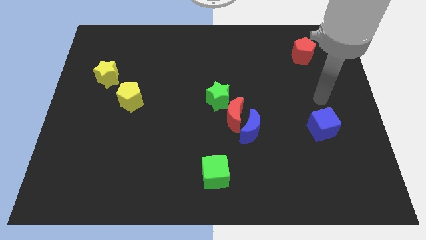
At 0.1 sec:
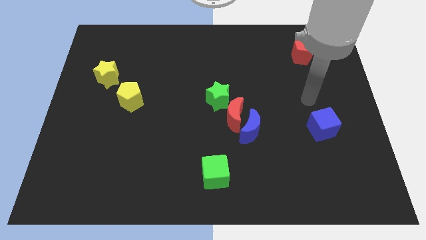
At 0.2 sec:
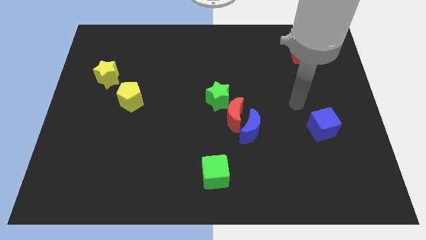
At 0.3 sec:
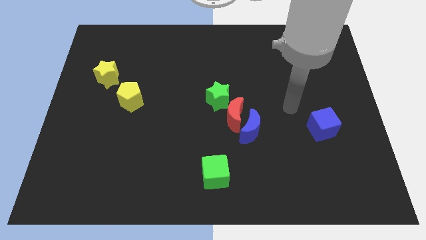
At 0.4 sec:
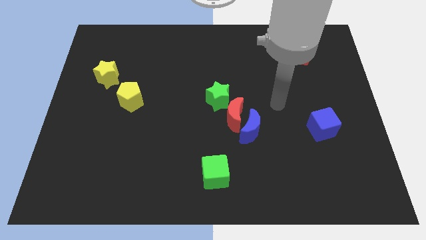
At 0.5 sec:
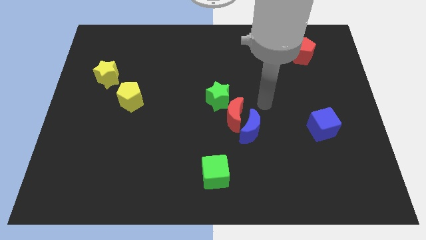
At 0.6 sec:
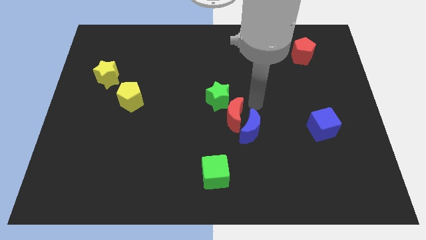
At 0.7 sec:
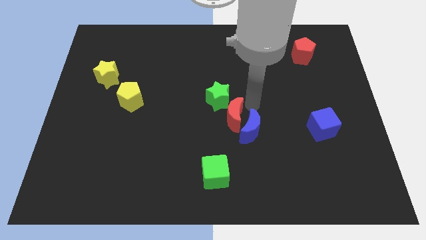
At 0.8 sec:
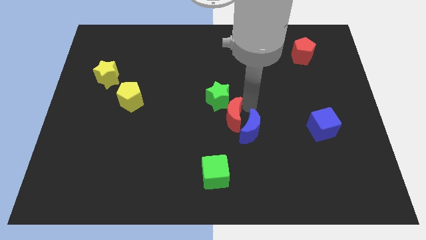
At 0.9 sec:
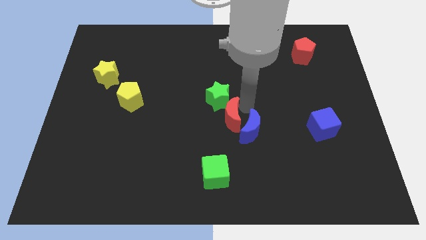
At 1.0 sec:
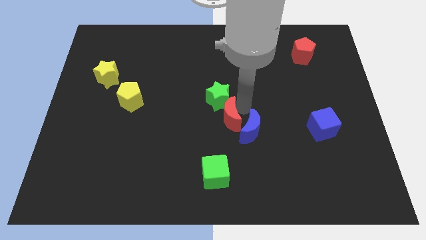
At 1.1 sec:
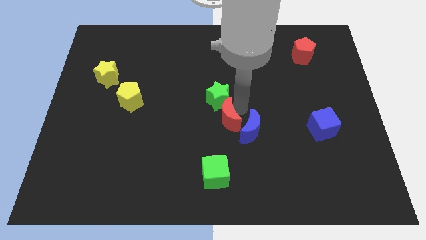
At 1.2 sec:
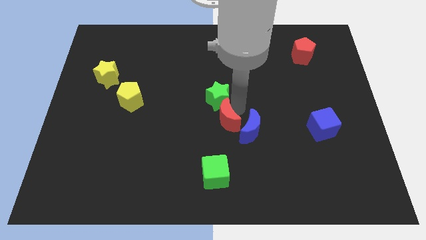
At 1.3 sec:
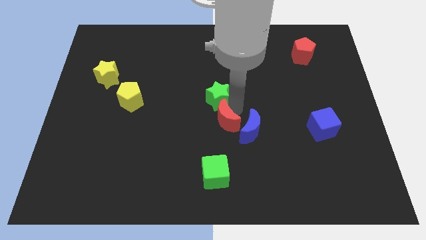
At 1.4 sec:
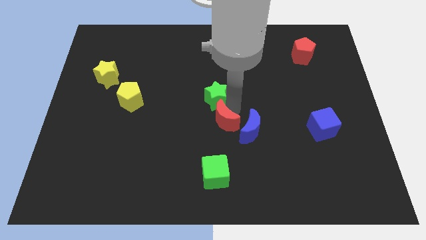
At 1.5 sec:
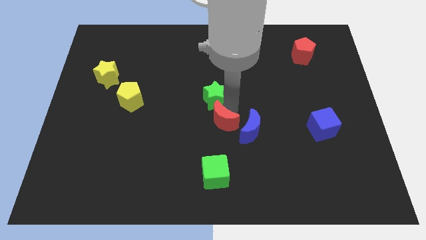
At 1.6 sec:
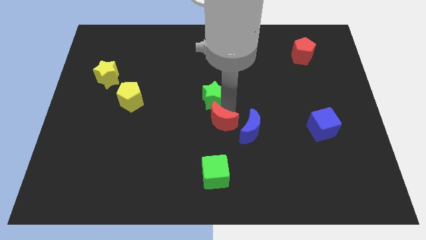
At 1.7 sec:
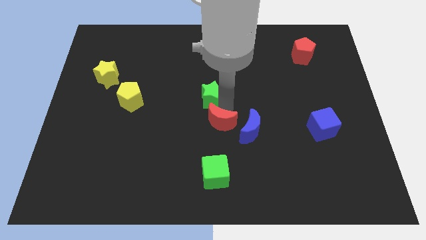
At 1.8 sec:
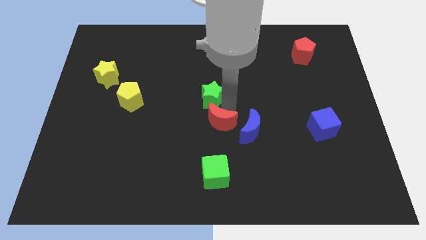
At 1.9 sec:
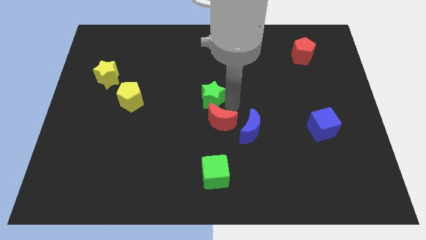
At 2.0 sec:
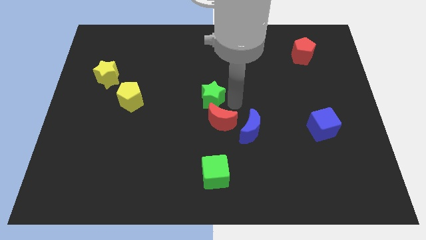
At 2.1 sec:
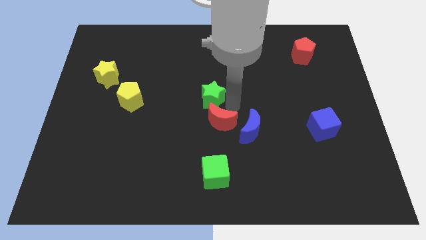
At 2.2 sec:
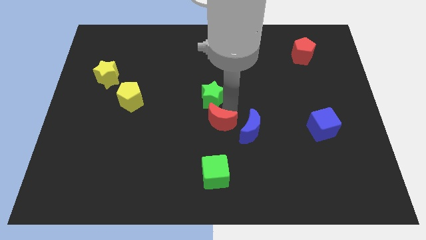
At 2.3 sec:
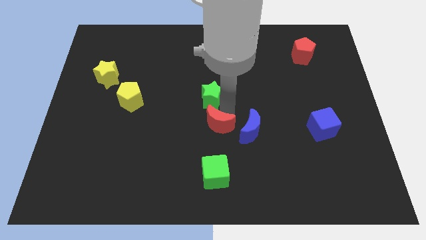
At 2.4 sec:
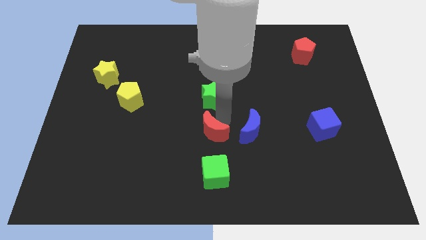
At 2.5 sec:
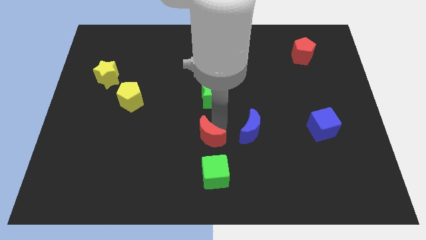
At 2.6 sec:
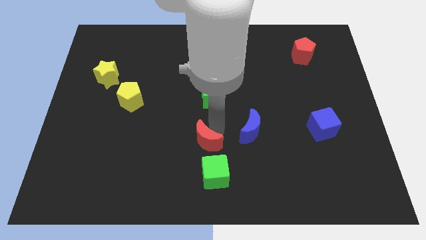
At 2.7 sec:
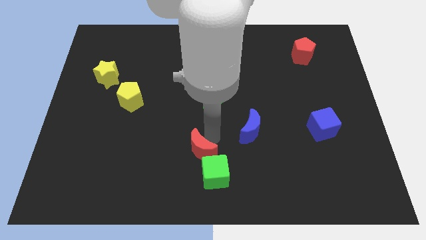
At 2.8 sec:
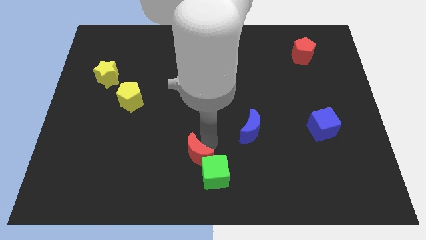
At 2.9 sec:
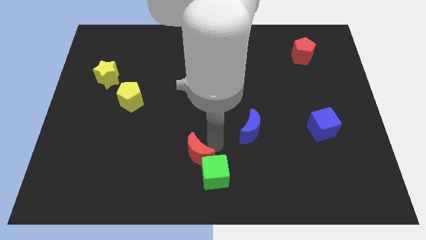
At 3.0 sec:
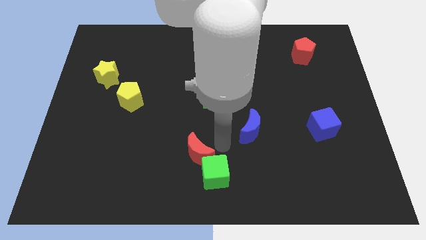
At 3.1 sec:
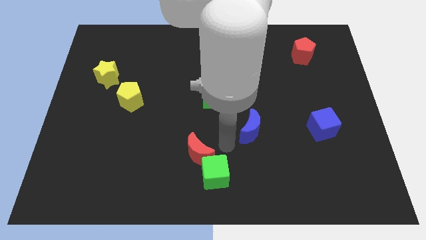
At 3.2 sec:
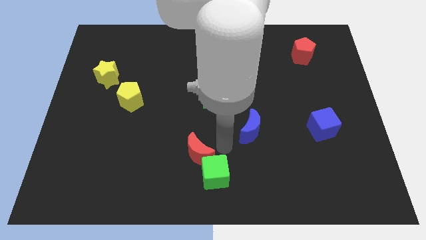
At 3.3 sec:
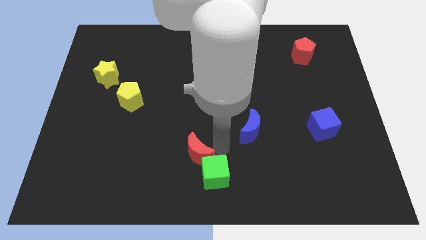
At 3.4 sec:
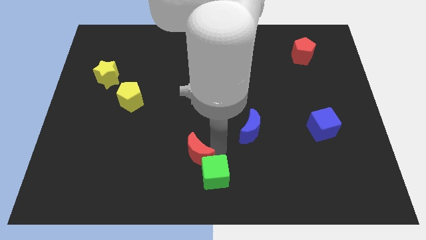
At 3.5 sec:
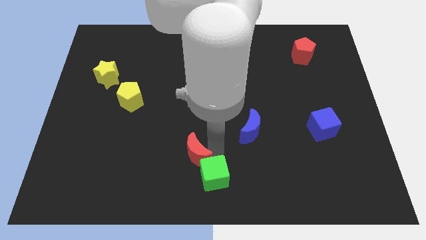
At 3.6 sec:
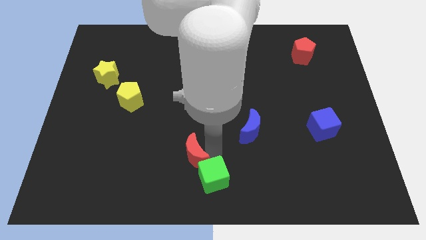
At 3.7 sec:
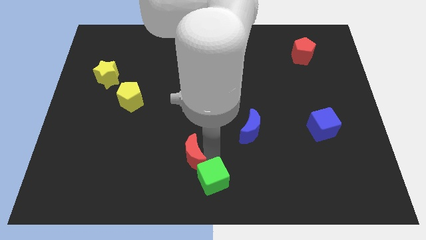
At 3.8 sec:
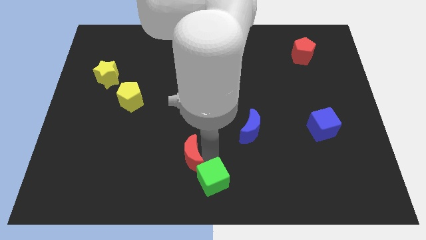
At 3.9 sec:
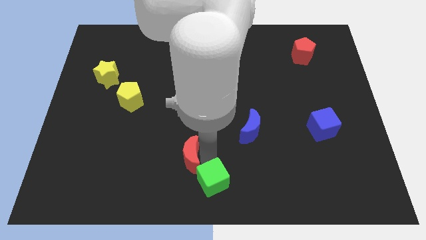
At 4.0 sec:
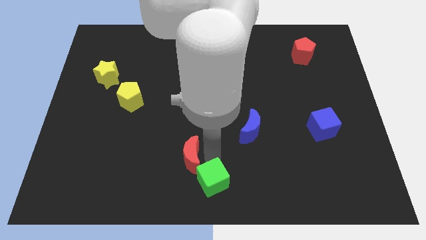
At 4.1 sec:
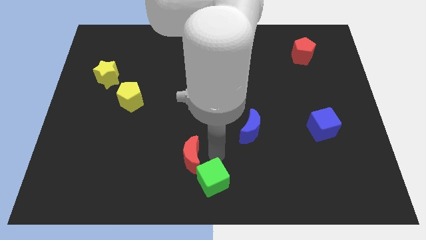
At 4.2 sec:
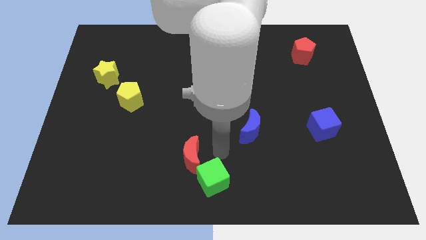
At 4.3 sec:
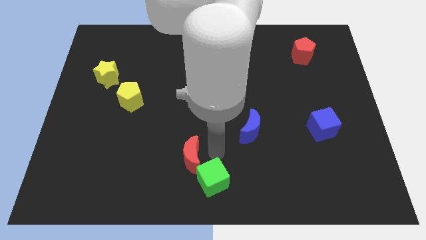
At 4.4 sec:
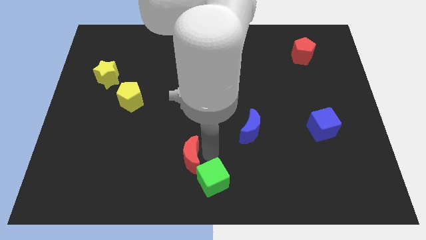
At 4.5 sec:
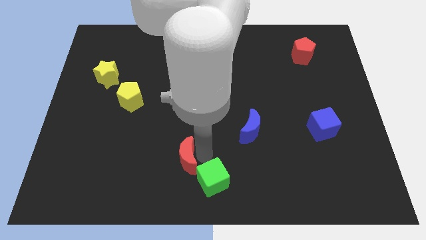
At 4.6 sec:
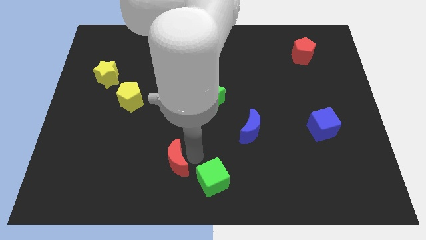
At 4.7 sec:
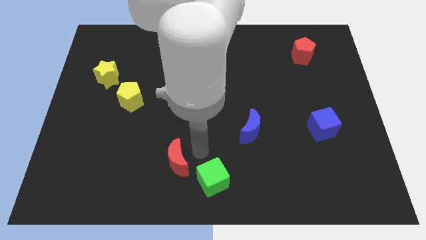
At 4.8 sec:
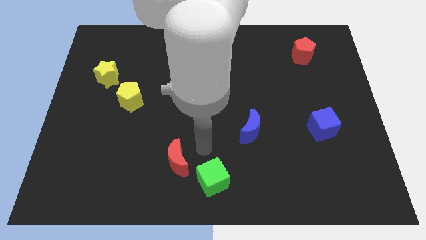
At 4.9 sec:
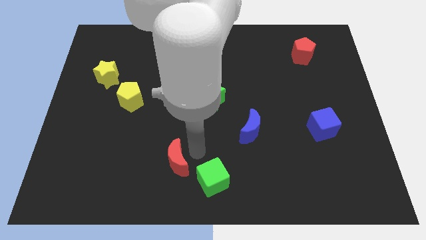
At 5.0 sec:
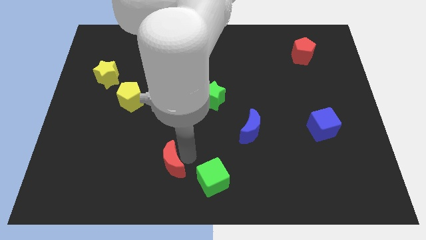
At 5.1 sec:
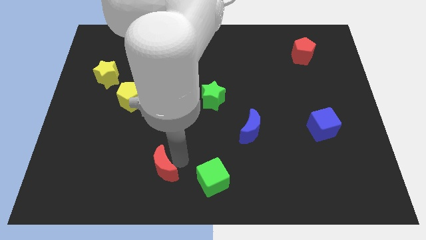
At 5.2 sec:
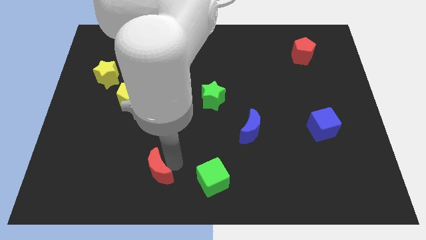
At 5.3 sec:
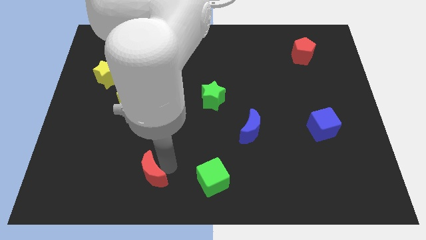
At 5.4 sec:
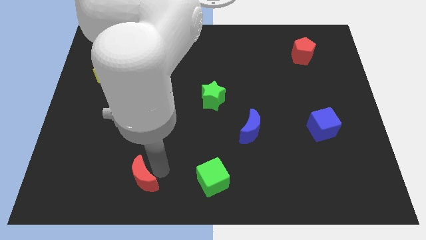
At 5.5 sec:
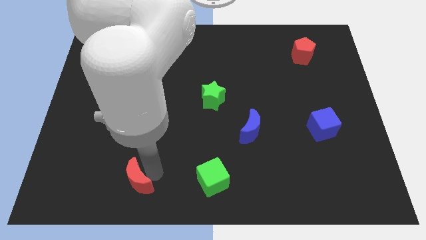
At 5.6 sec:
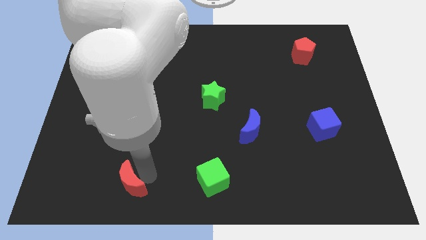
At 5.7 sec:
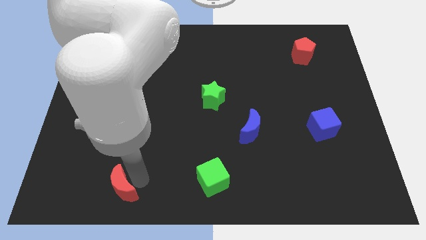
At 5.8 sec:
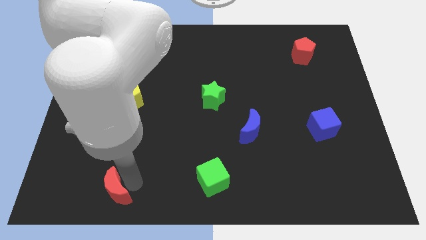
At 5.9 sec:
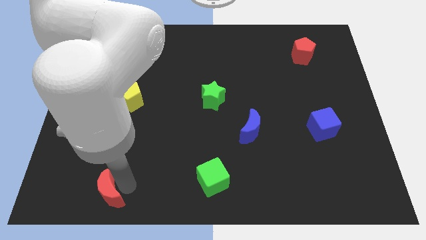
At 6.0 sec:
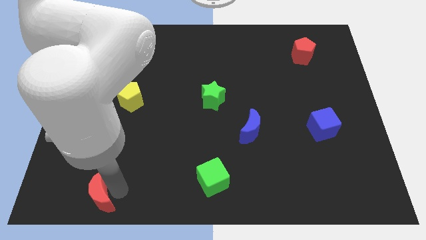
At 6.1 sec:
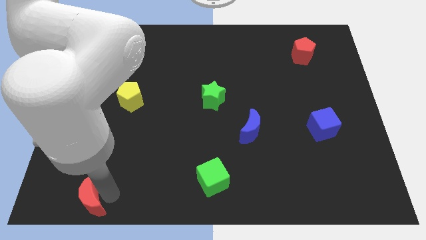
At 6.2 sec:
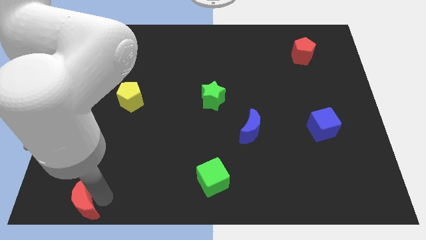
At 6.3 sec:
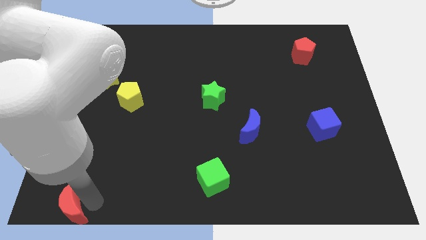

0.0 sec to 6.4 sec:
slide the red moon to the bottom left of the board
